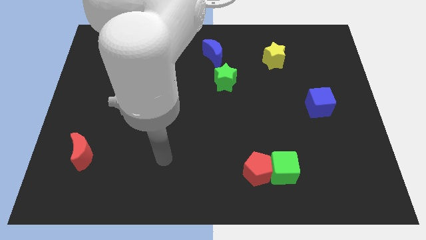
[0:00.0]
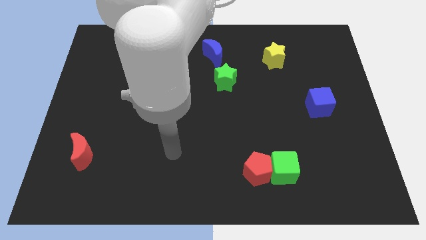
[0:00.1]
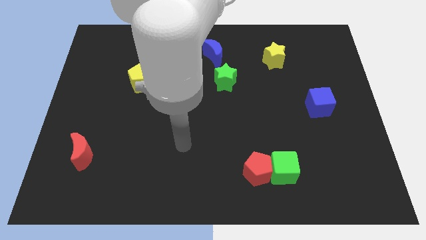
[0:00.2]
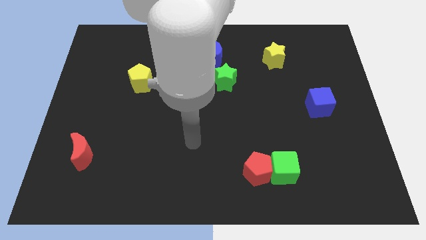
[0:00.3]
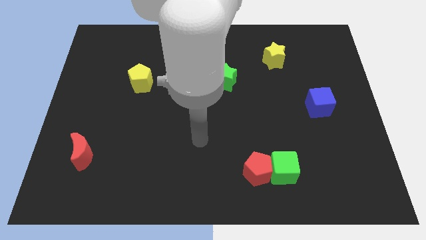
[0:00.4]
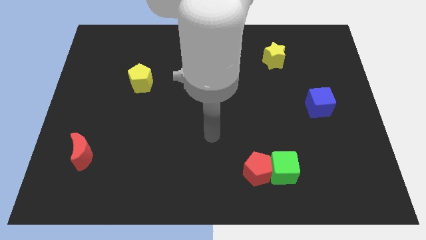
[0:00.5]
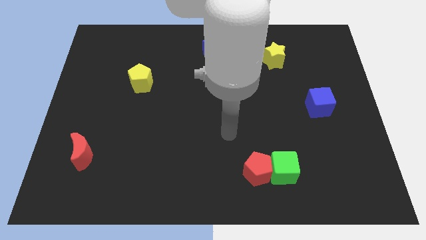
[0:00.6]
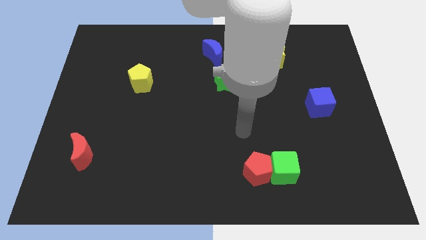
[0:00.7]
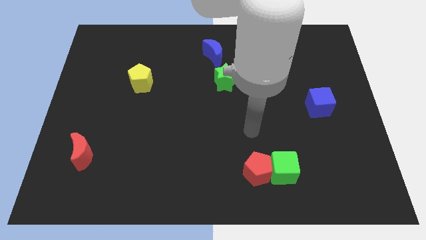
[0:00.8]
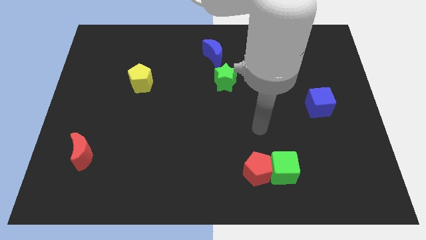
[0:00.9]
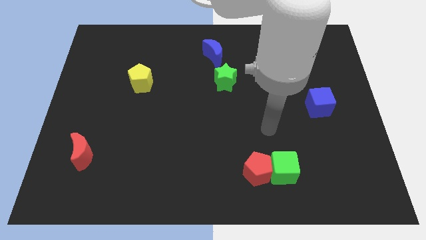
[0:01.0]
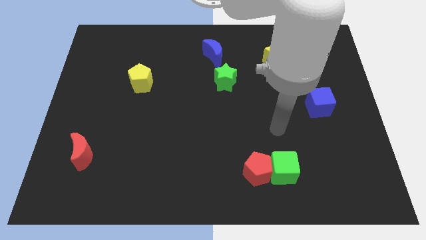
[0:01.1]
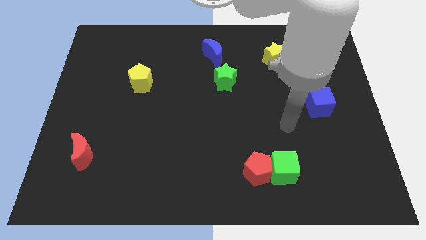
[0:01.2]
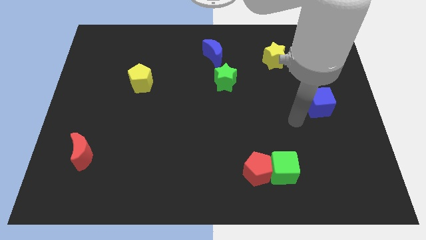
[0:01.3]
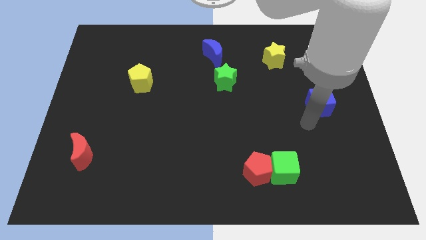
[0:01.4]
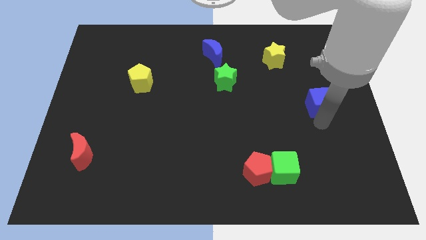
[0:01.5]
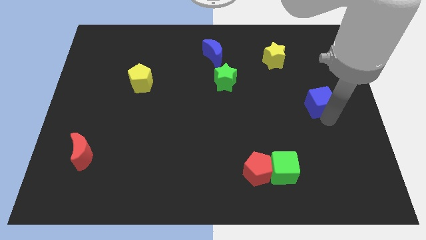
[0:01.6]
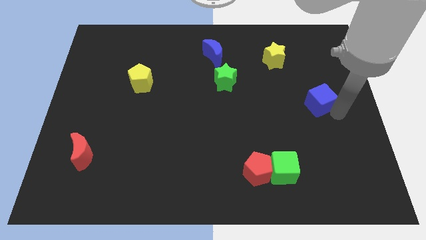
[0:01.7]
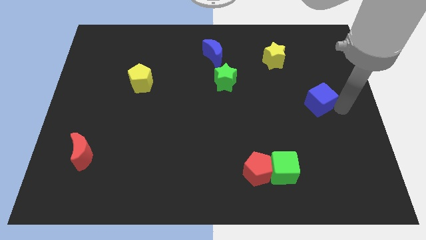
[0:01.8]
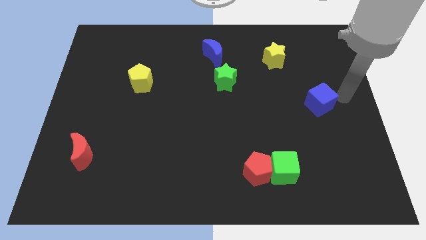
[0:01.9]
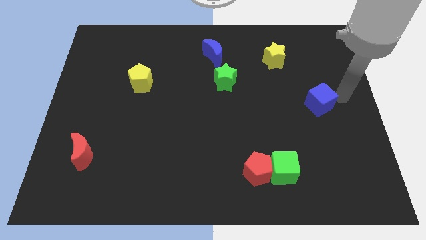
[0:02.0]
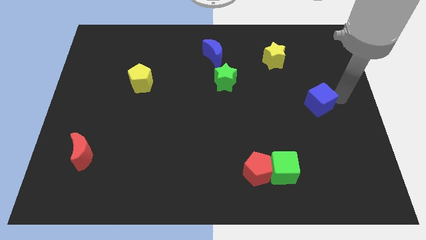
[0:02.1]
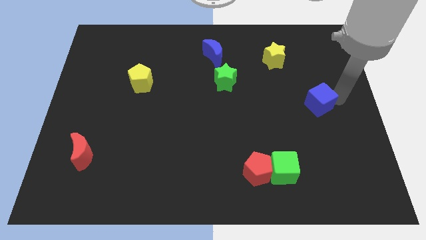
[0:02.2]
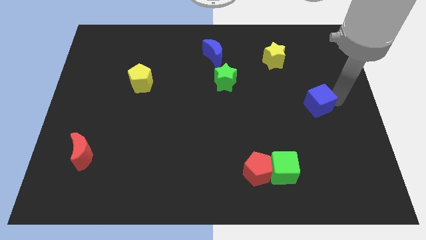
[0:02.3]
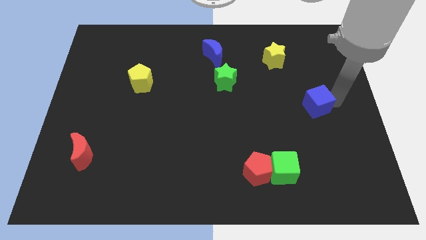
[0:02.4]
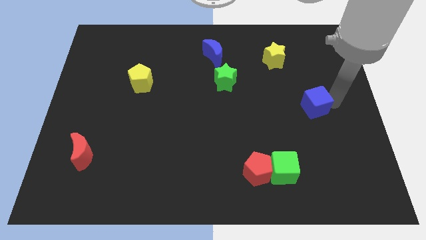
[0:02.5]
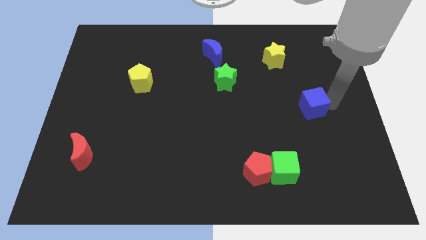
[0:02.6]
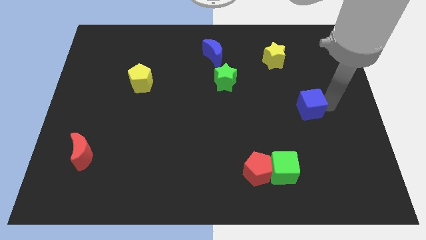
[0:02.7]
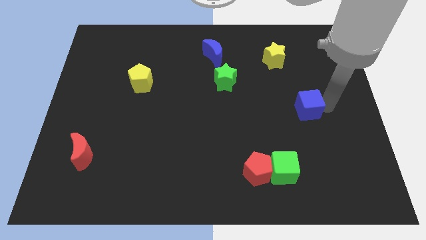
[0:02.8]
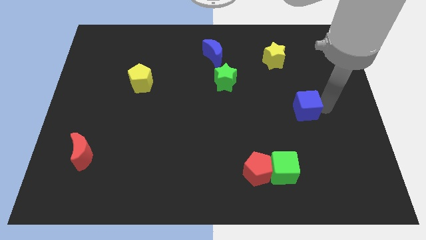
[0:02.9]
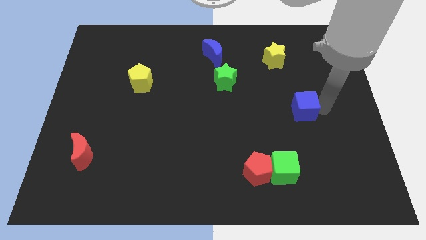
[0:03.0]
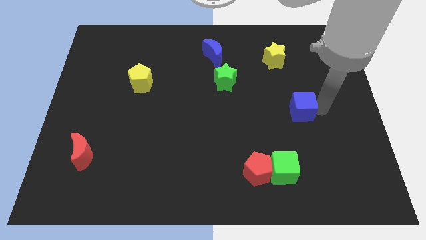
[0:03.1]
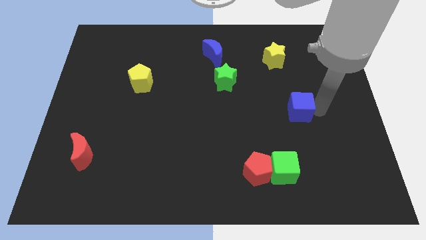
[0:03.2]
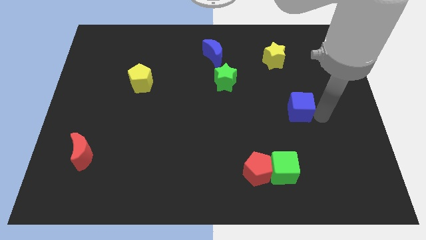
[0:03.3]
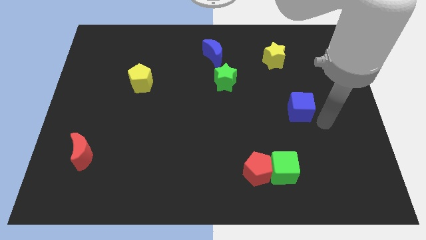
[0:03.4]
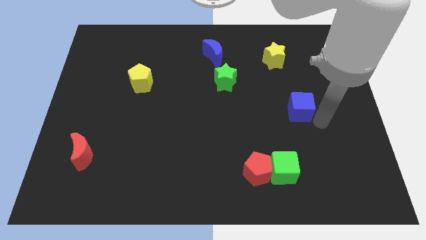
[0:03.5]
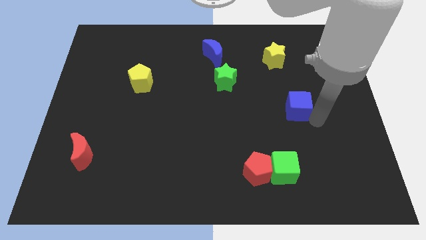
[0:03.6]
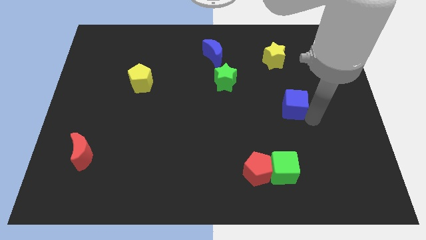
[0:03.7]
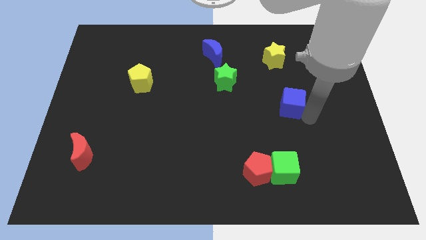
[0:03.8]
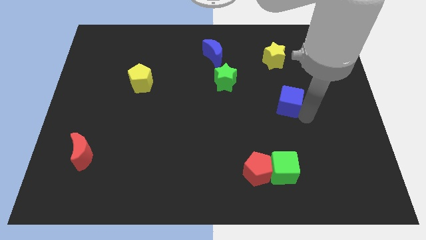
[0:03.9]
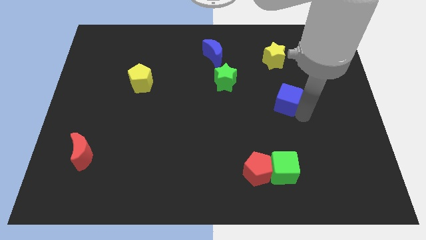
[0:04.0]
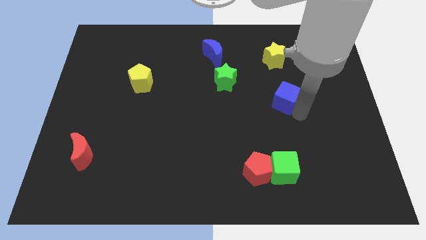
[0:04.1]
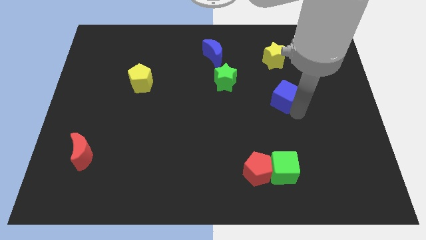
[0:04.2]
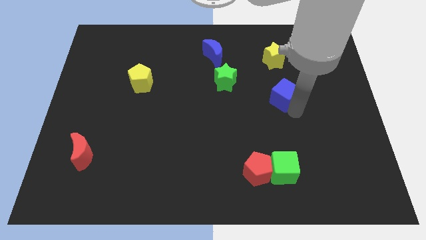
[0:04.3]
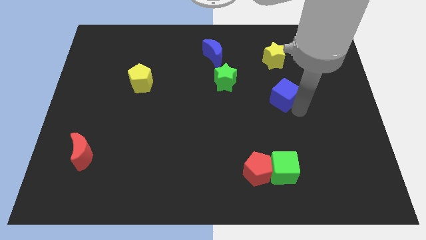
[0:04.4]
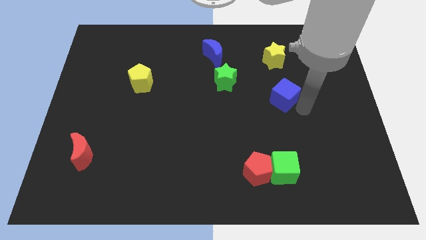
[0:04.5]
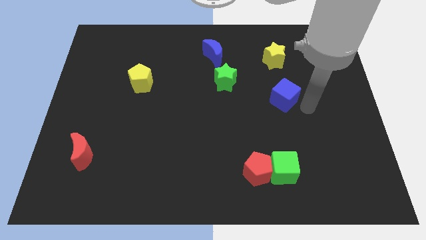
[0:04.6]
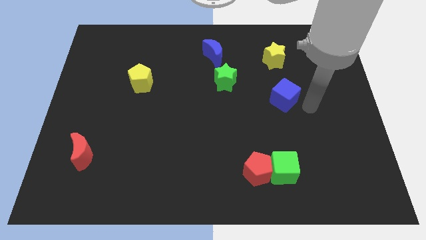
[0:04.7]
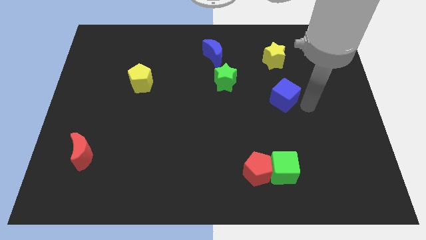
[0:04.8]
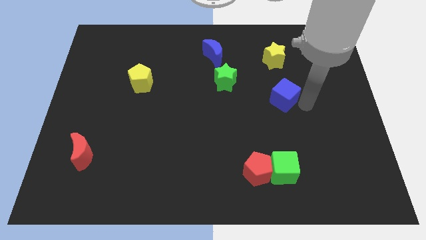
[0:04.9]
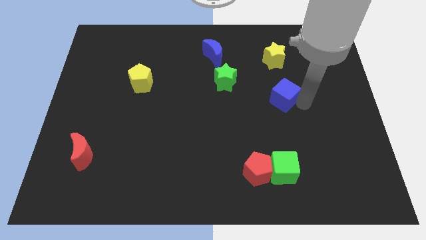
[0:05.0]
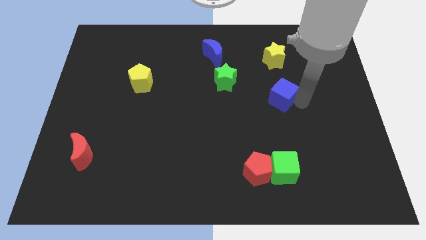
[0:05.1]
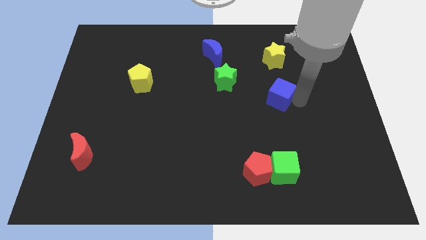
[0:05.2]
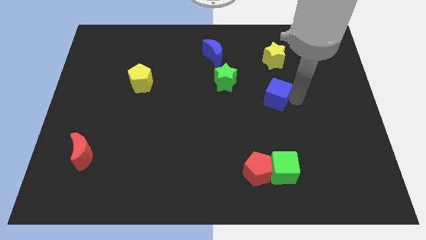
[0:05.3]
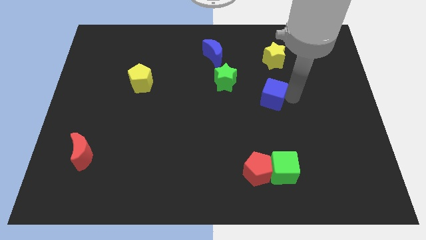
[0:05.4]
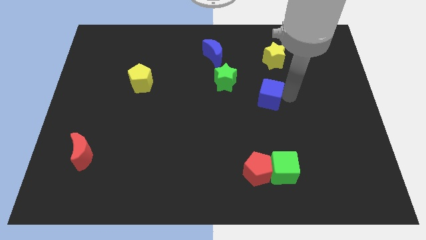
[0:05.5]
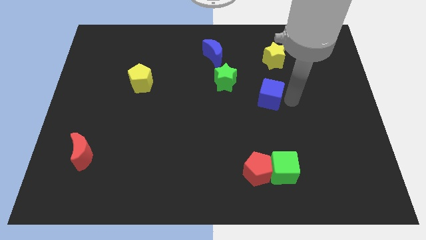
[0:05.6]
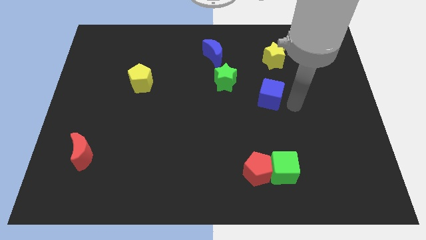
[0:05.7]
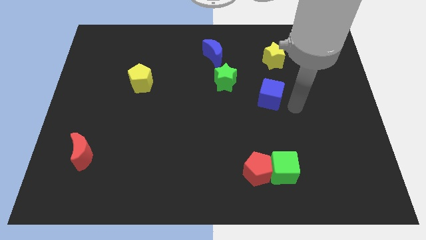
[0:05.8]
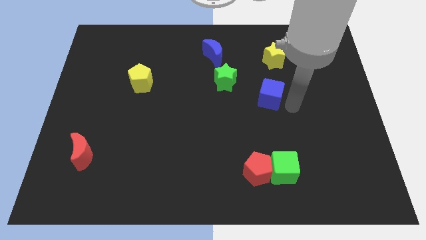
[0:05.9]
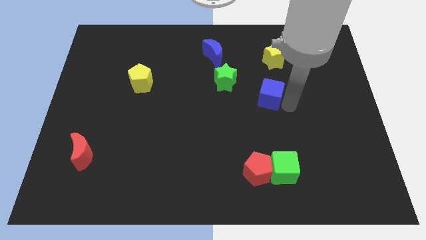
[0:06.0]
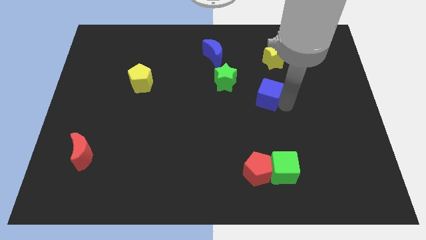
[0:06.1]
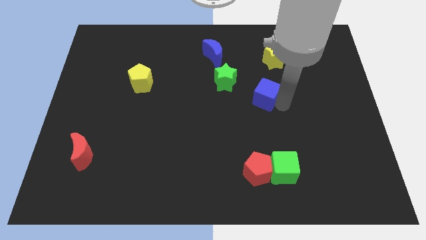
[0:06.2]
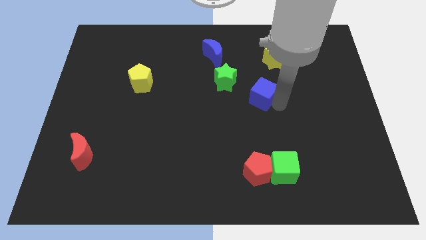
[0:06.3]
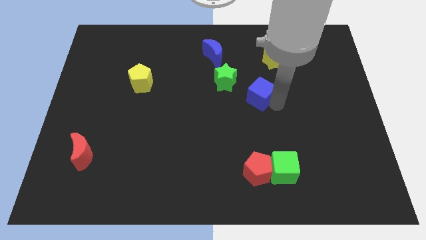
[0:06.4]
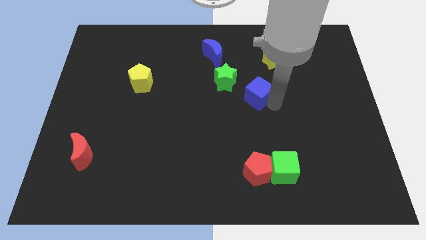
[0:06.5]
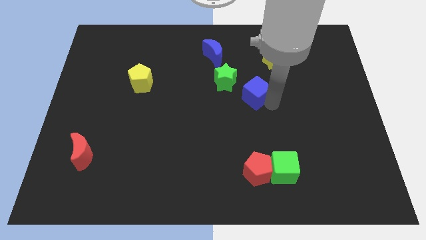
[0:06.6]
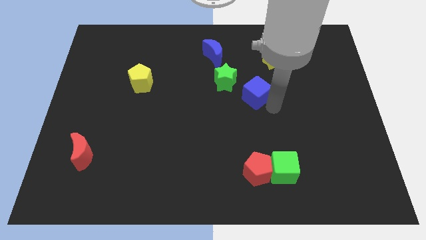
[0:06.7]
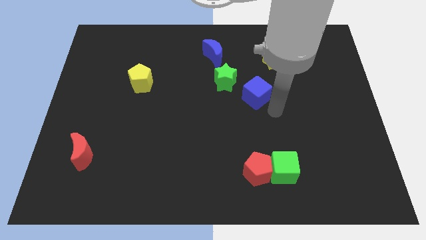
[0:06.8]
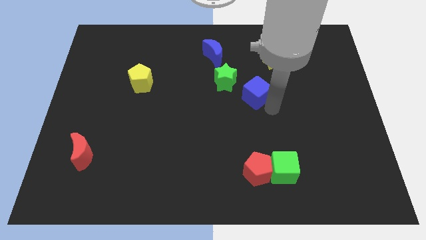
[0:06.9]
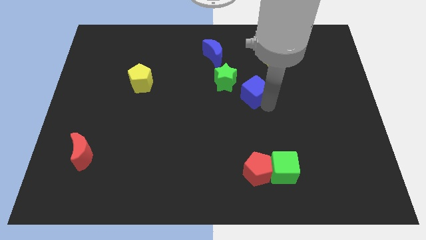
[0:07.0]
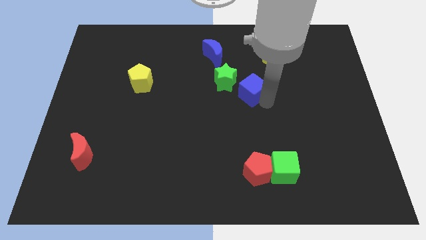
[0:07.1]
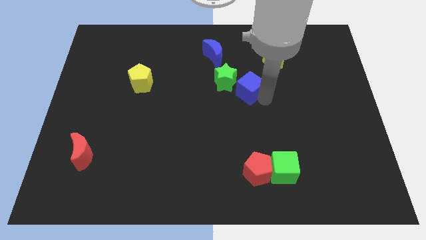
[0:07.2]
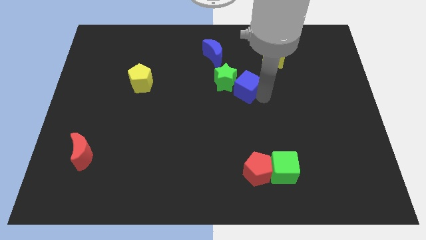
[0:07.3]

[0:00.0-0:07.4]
push the blue cube towards the green star
